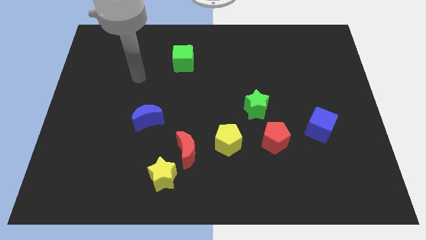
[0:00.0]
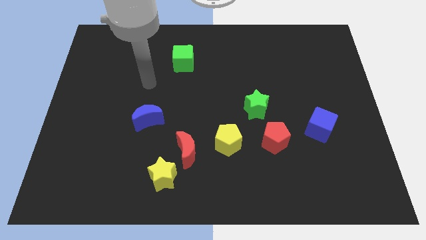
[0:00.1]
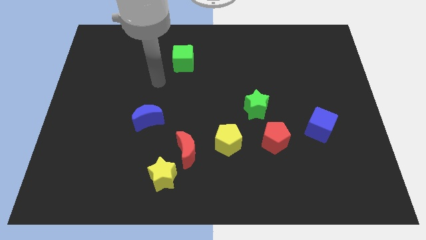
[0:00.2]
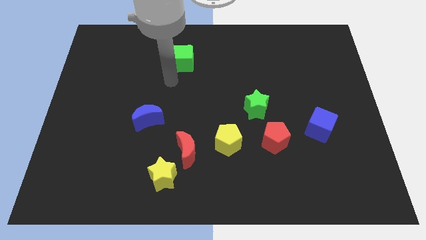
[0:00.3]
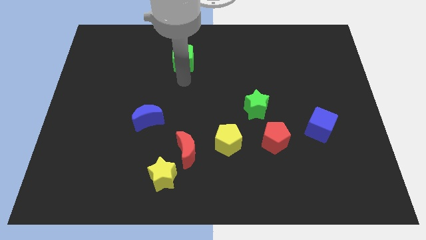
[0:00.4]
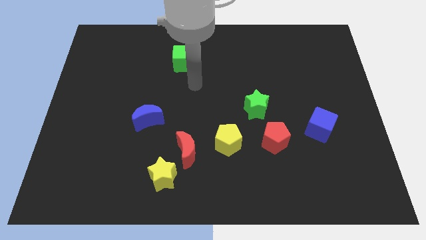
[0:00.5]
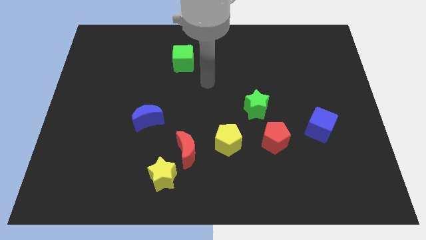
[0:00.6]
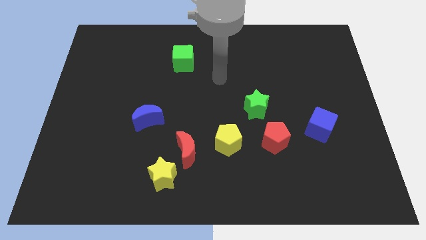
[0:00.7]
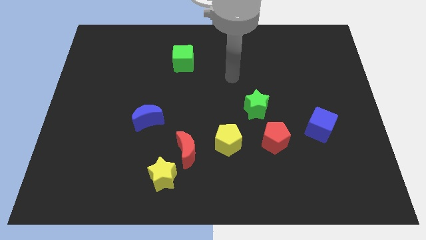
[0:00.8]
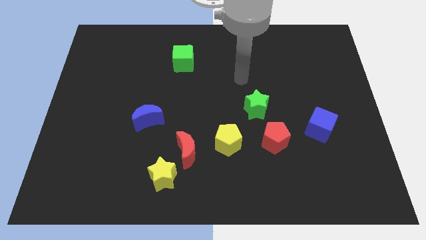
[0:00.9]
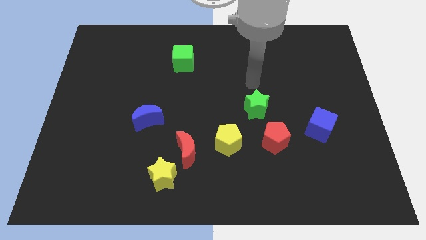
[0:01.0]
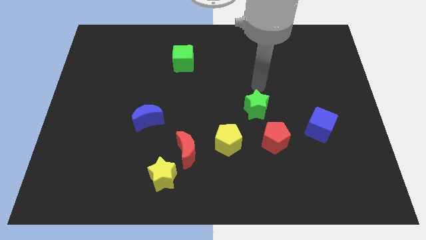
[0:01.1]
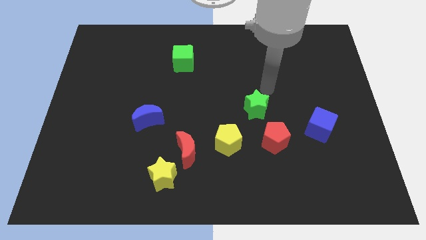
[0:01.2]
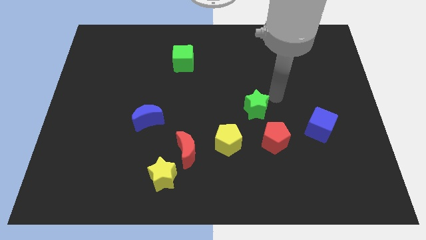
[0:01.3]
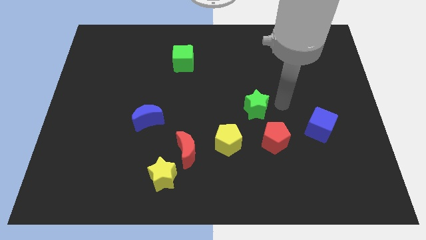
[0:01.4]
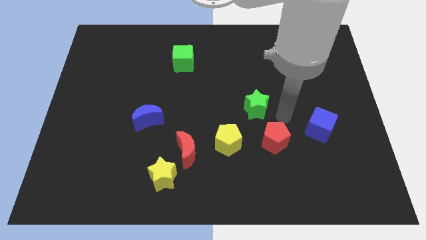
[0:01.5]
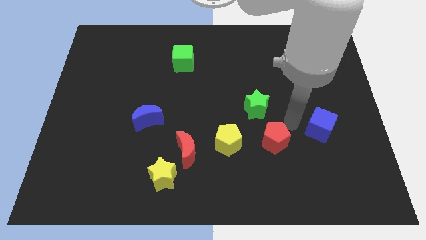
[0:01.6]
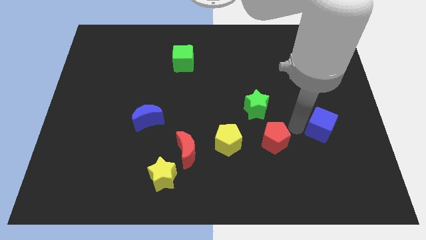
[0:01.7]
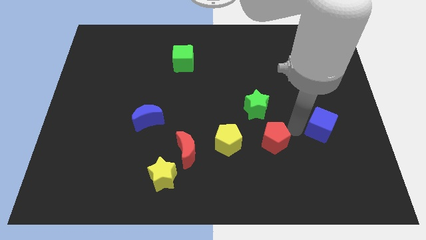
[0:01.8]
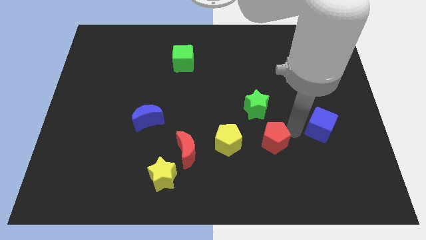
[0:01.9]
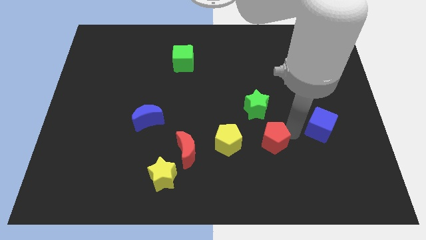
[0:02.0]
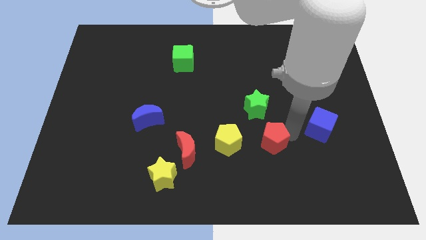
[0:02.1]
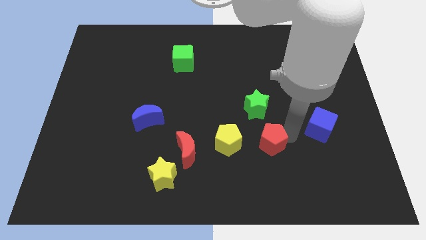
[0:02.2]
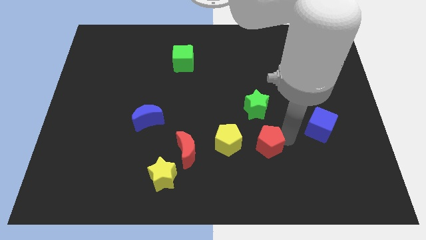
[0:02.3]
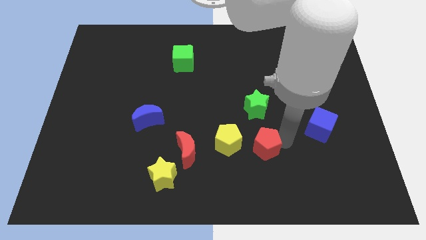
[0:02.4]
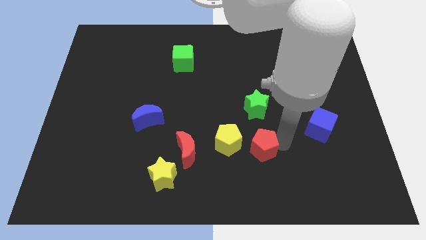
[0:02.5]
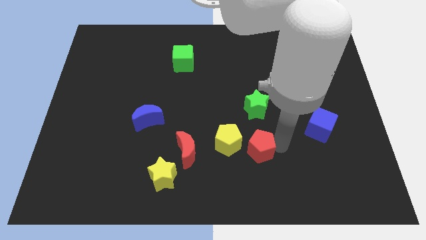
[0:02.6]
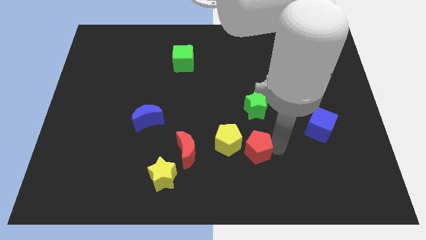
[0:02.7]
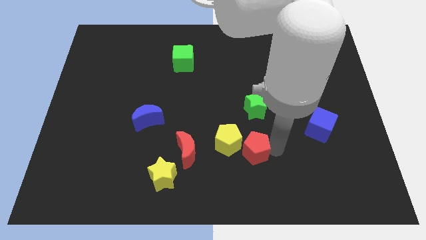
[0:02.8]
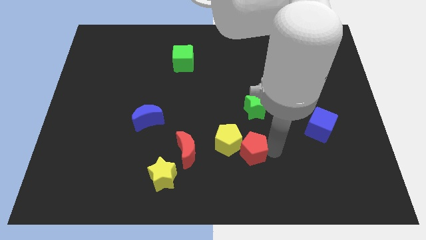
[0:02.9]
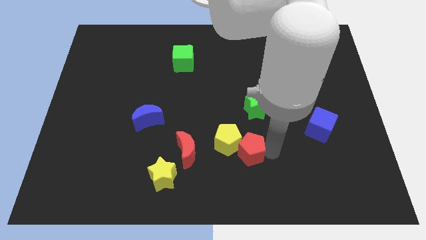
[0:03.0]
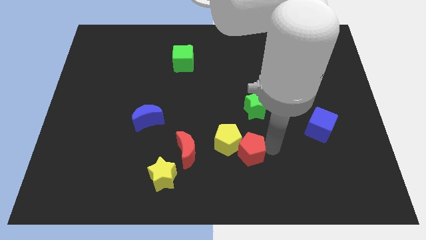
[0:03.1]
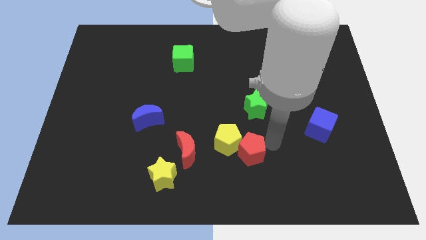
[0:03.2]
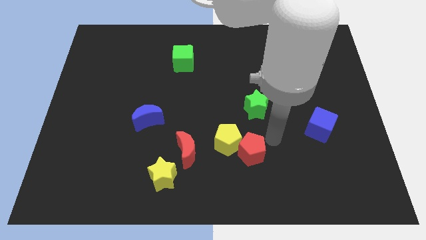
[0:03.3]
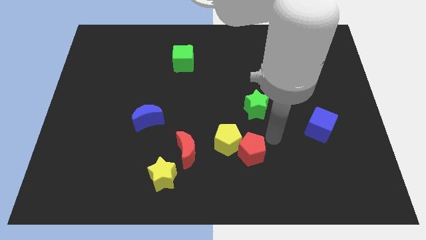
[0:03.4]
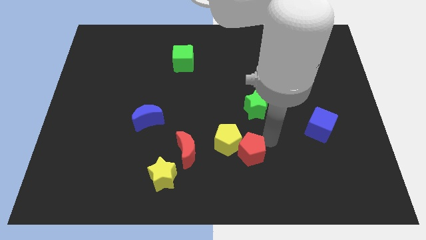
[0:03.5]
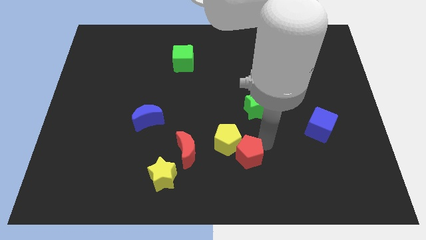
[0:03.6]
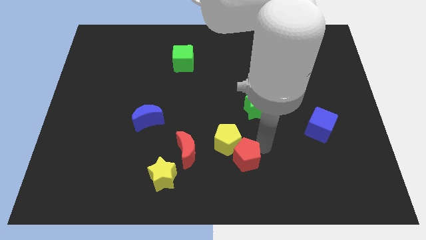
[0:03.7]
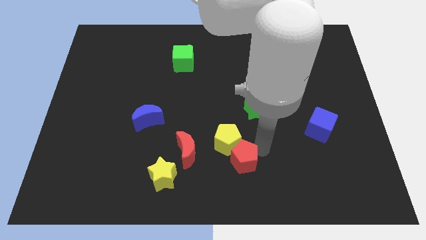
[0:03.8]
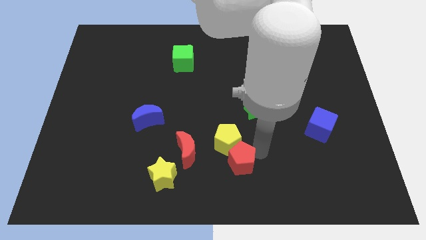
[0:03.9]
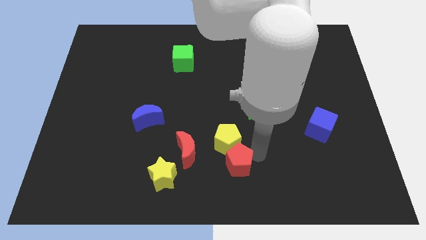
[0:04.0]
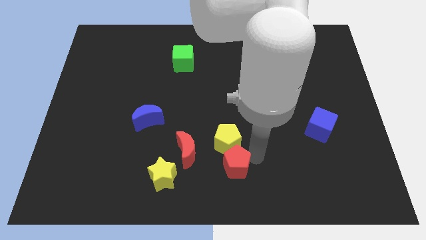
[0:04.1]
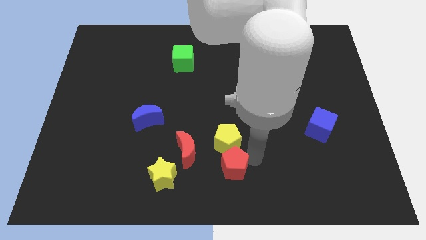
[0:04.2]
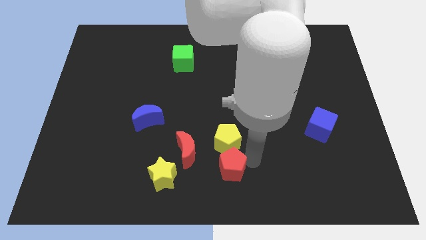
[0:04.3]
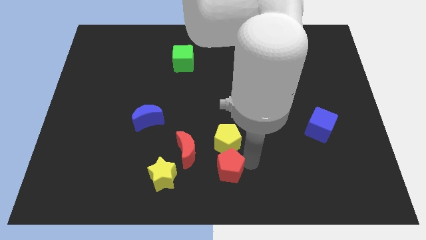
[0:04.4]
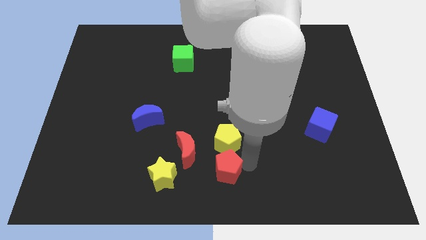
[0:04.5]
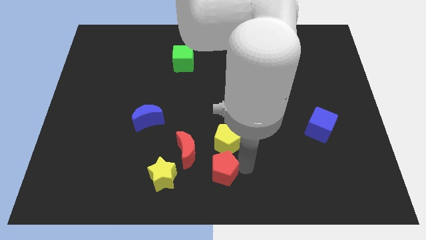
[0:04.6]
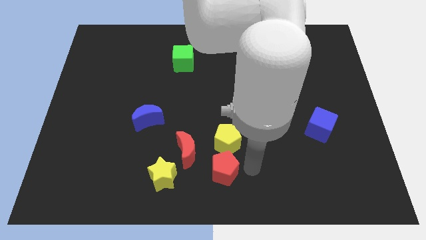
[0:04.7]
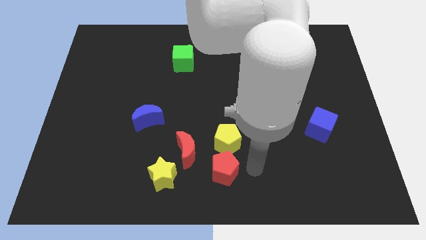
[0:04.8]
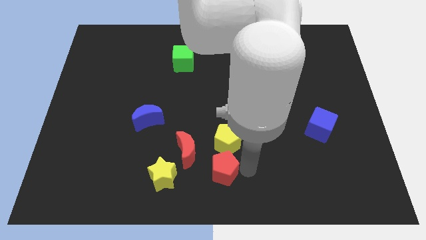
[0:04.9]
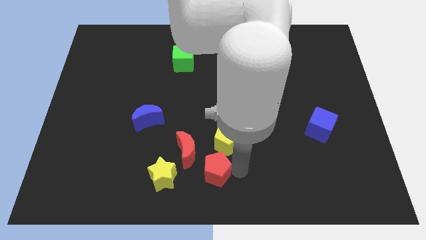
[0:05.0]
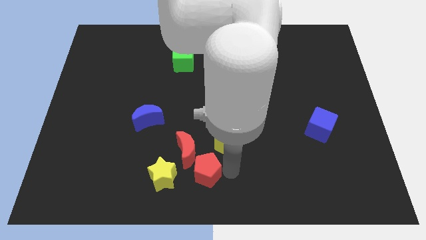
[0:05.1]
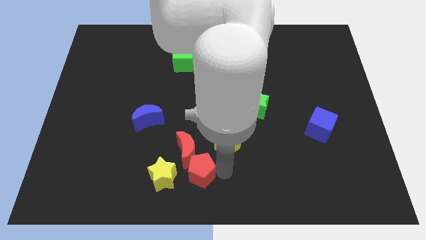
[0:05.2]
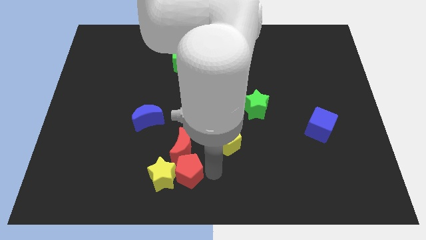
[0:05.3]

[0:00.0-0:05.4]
move the red pentagon close to the yellow star

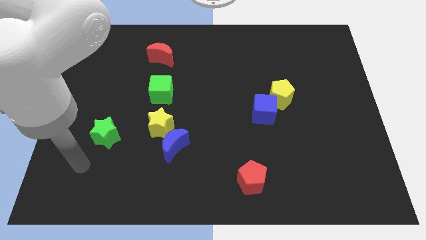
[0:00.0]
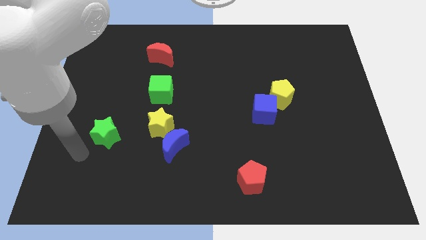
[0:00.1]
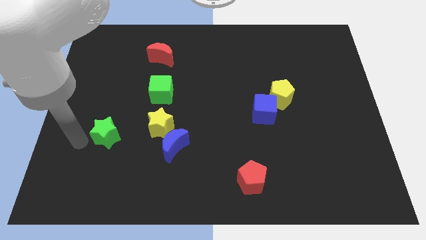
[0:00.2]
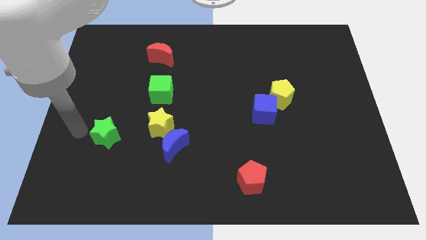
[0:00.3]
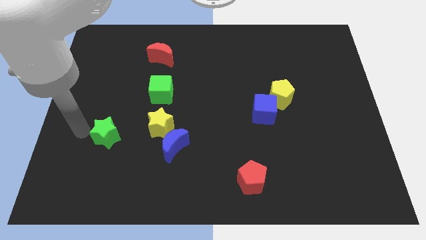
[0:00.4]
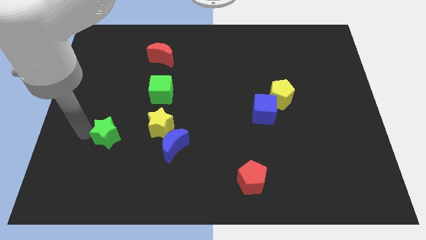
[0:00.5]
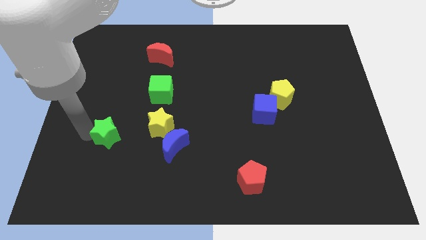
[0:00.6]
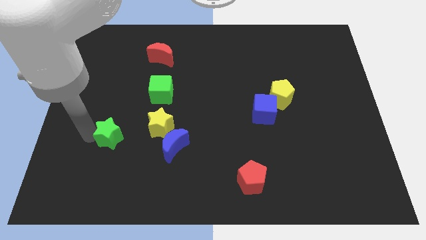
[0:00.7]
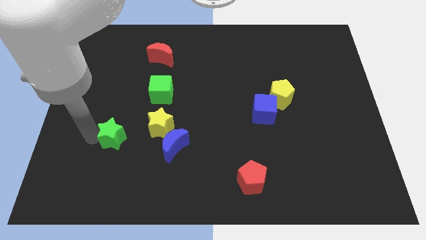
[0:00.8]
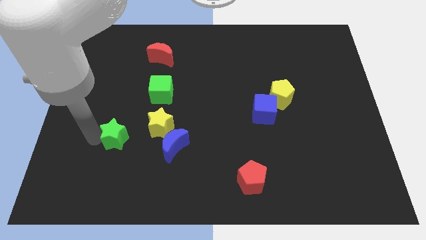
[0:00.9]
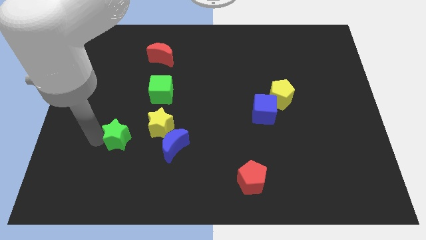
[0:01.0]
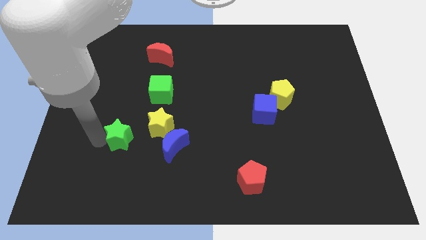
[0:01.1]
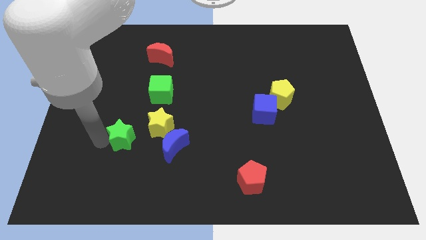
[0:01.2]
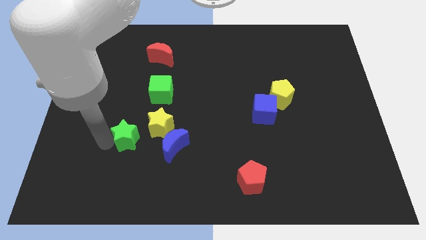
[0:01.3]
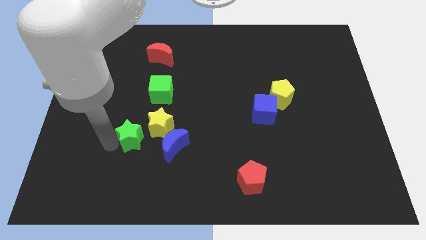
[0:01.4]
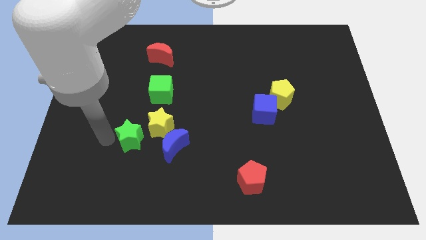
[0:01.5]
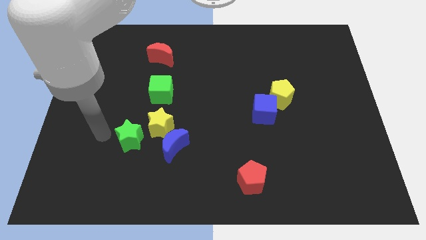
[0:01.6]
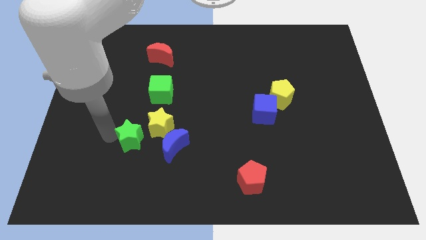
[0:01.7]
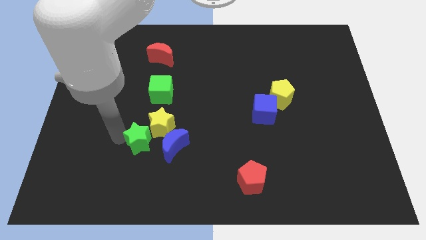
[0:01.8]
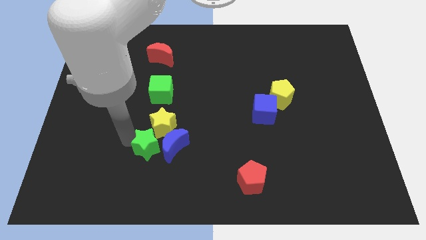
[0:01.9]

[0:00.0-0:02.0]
put the green star next to the blue moon
